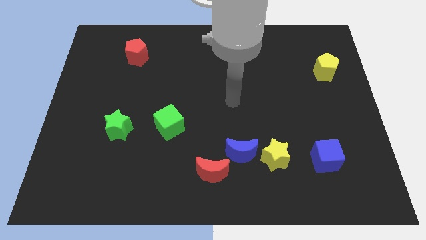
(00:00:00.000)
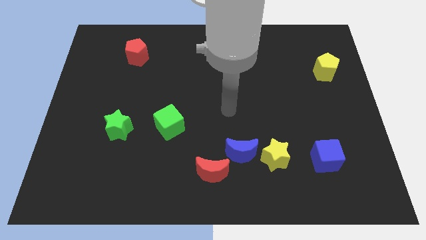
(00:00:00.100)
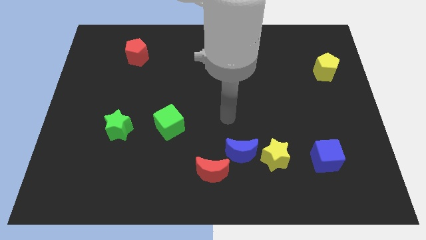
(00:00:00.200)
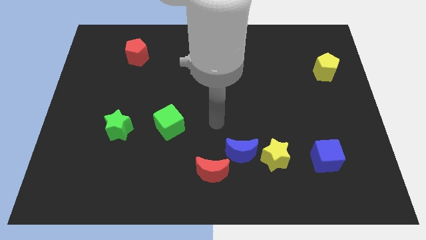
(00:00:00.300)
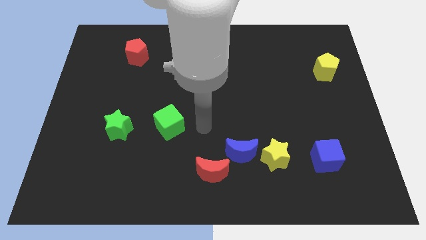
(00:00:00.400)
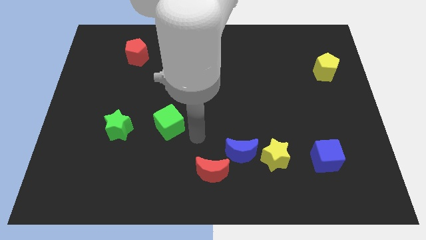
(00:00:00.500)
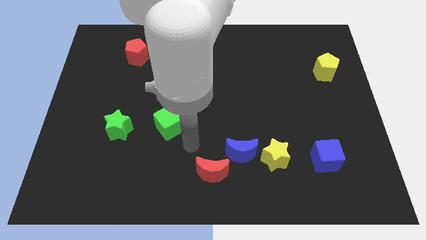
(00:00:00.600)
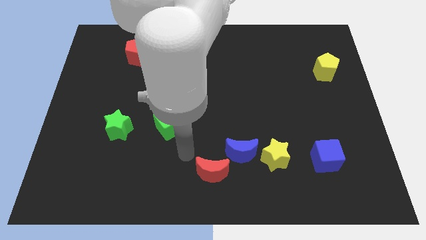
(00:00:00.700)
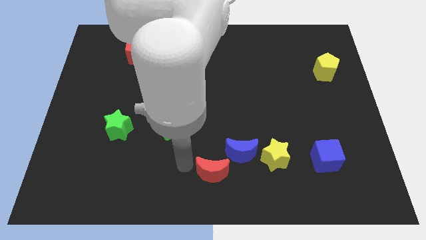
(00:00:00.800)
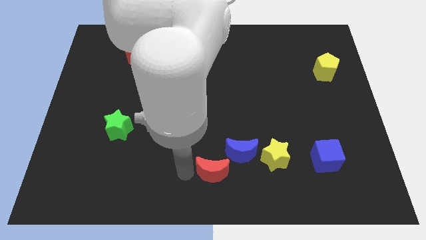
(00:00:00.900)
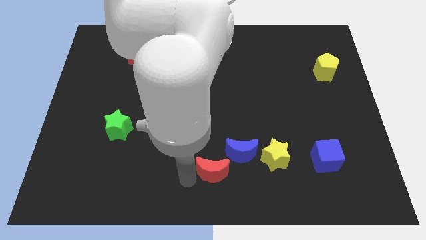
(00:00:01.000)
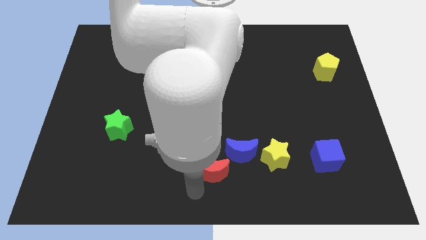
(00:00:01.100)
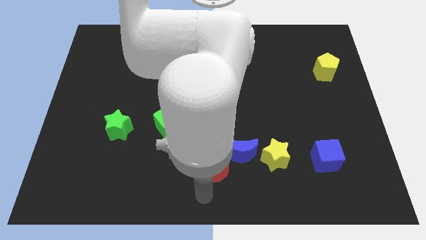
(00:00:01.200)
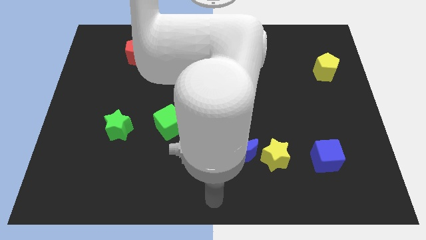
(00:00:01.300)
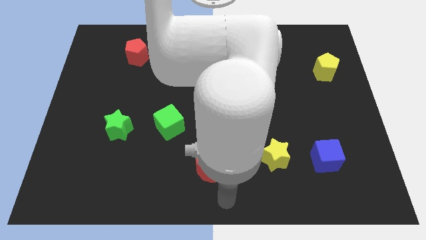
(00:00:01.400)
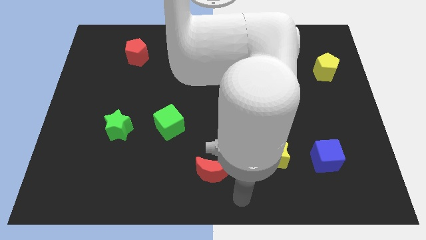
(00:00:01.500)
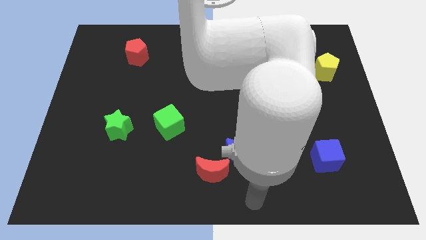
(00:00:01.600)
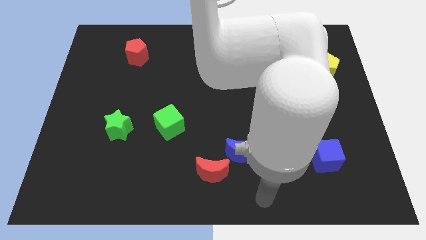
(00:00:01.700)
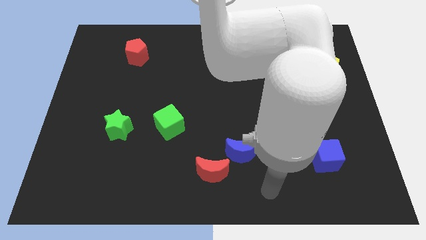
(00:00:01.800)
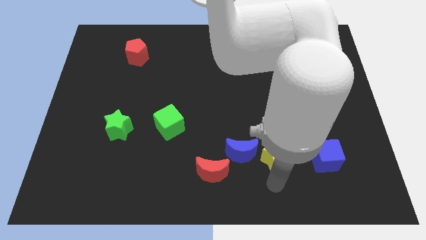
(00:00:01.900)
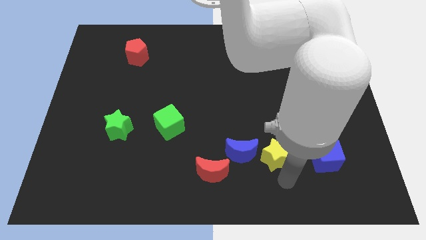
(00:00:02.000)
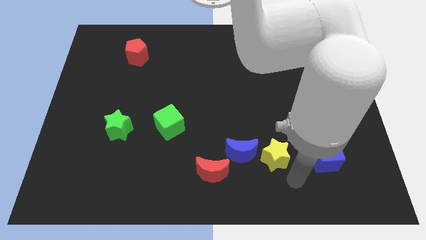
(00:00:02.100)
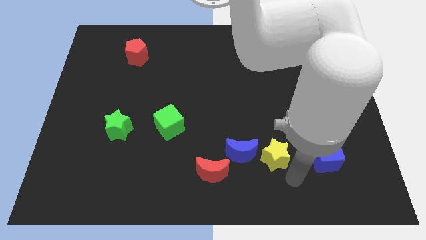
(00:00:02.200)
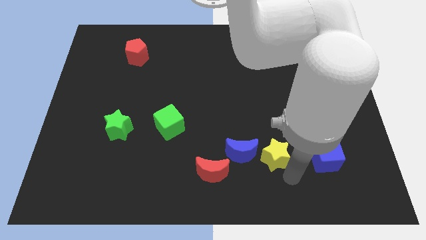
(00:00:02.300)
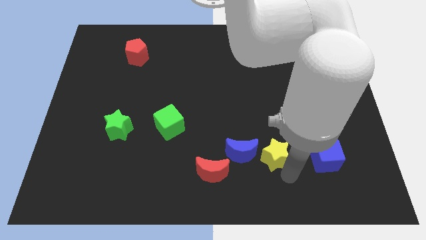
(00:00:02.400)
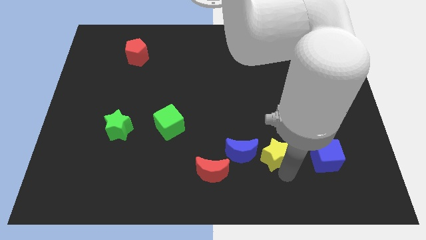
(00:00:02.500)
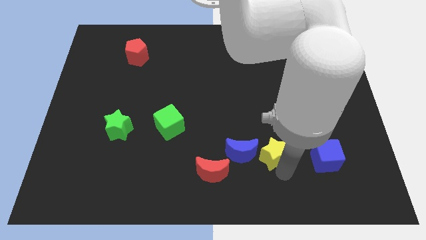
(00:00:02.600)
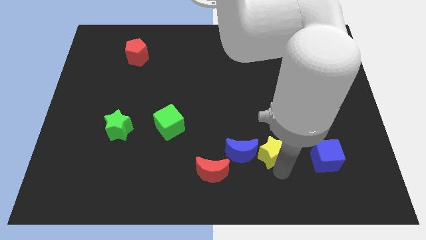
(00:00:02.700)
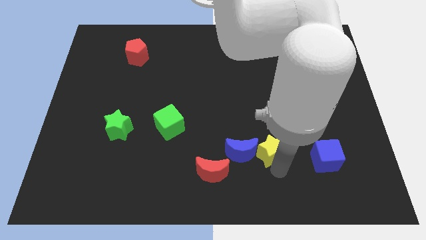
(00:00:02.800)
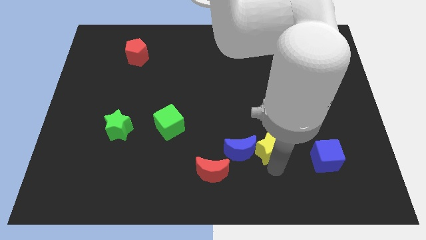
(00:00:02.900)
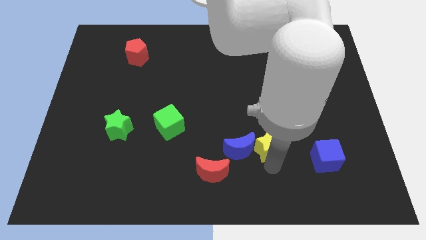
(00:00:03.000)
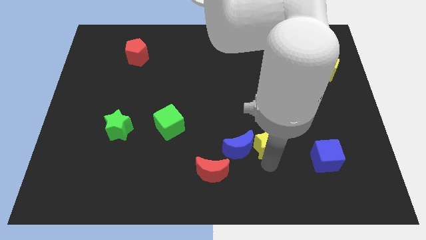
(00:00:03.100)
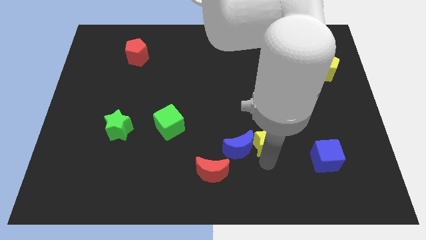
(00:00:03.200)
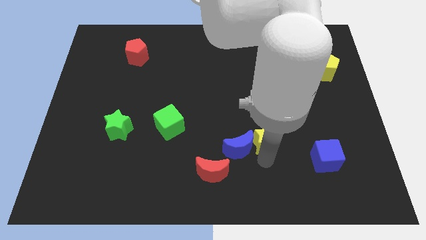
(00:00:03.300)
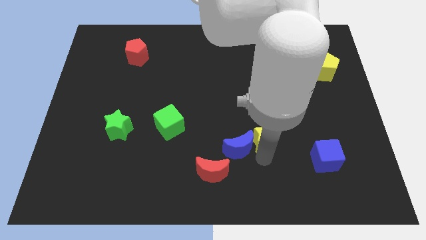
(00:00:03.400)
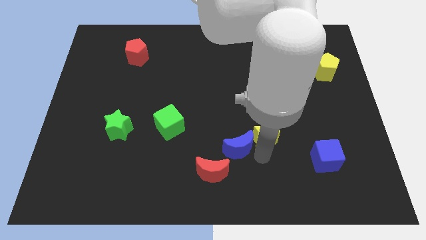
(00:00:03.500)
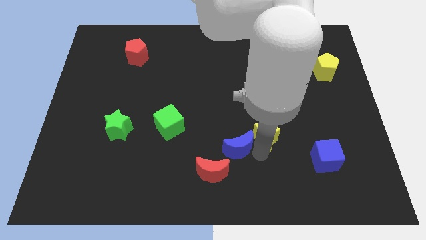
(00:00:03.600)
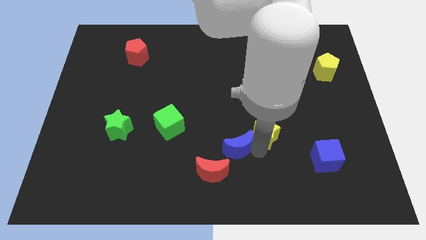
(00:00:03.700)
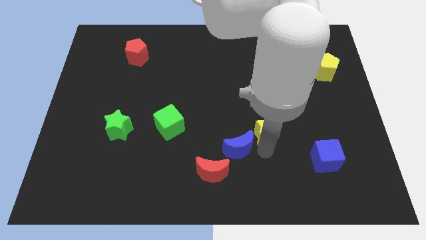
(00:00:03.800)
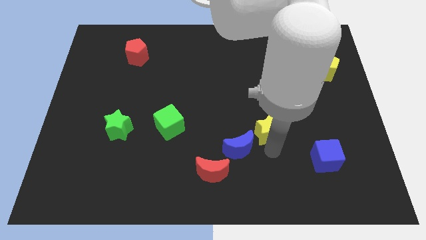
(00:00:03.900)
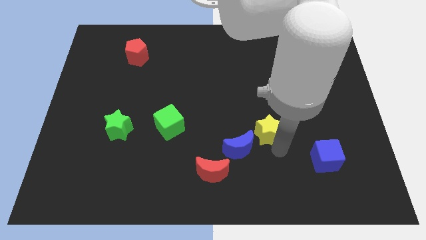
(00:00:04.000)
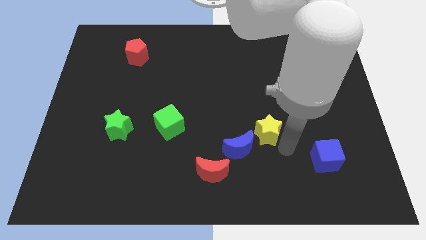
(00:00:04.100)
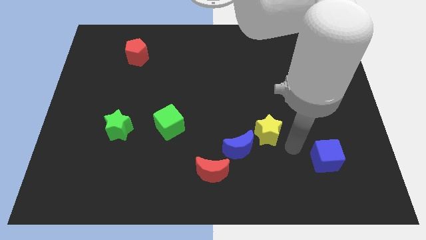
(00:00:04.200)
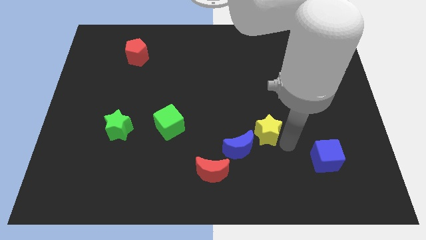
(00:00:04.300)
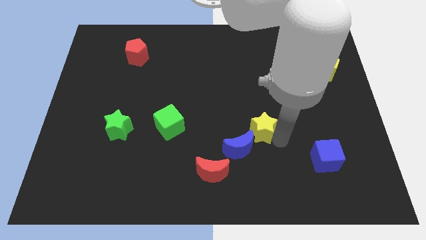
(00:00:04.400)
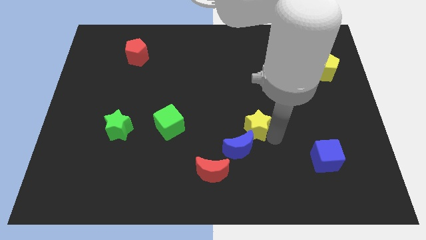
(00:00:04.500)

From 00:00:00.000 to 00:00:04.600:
slightly slide the yellow star up and to the left

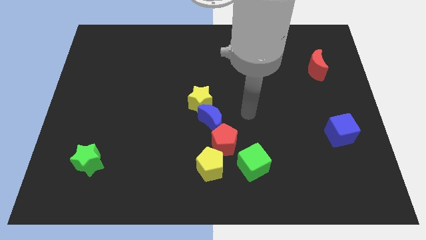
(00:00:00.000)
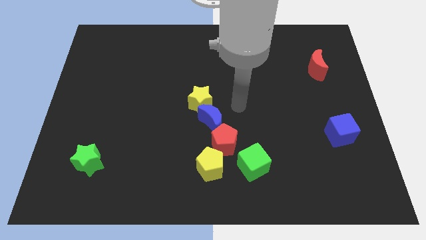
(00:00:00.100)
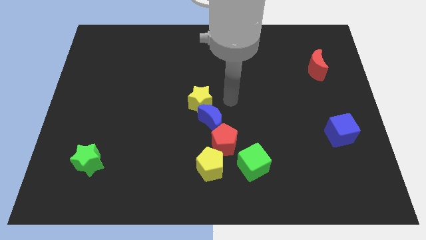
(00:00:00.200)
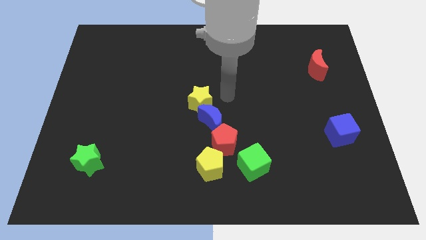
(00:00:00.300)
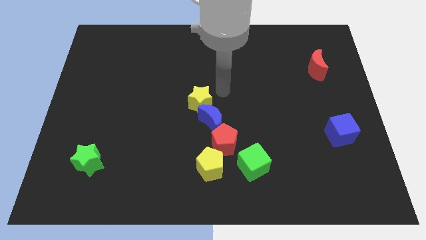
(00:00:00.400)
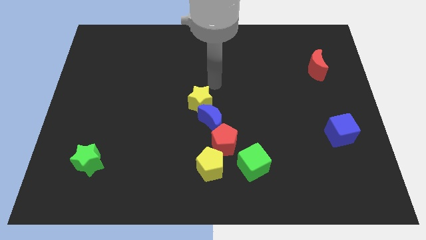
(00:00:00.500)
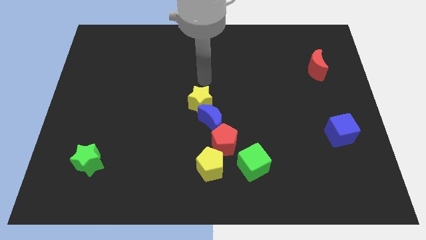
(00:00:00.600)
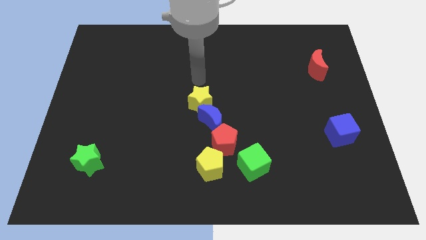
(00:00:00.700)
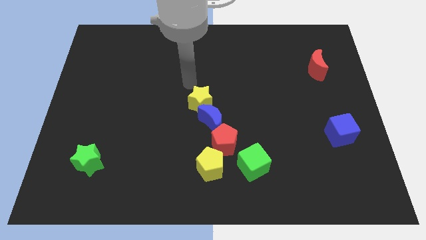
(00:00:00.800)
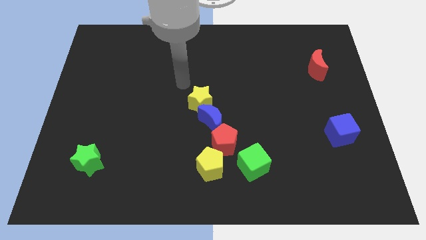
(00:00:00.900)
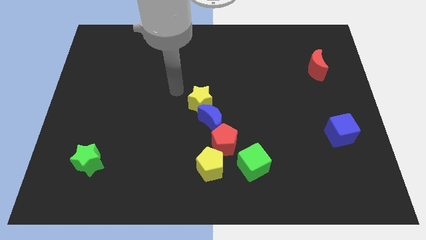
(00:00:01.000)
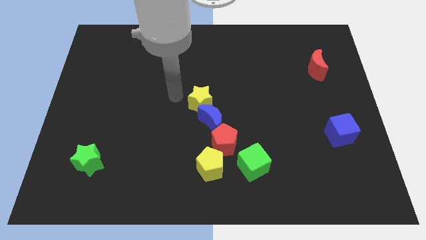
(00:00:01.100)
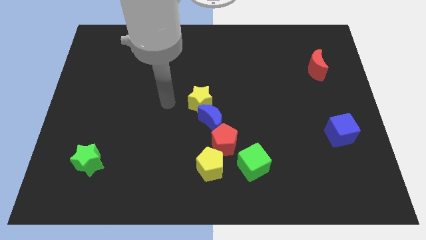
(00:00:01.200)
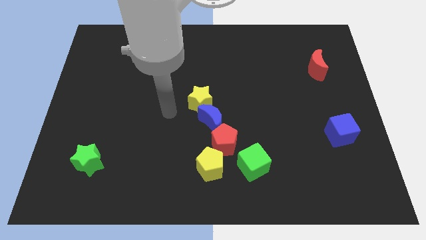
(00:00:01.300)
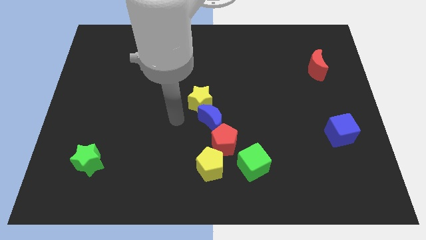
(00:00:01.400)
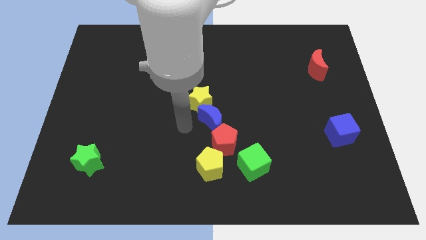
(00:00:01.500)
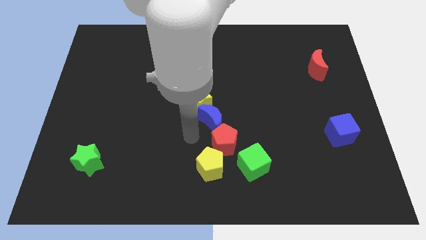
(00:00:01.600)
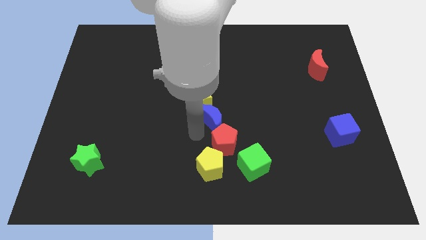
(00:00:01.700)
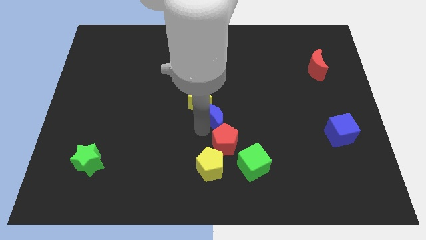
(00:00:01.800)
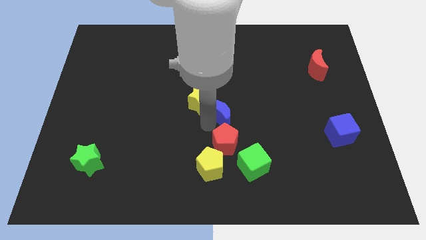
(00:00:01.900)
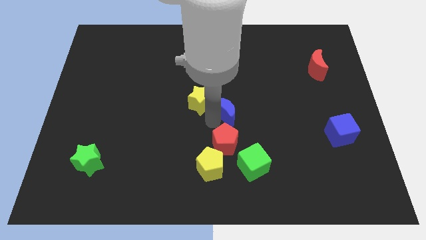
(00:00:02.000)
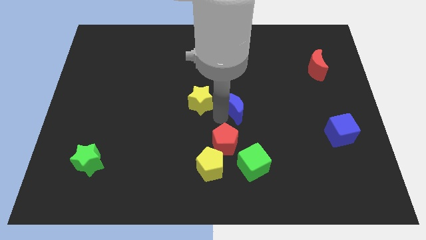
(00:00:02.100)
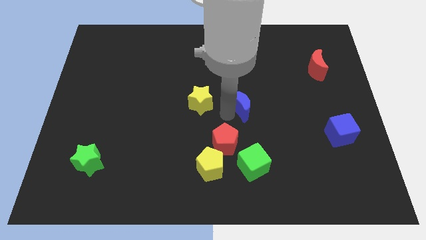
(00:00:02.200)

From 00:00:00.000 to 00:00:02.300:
move the blue moon up and right diagonally a little bit

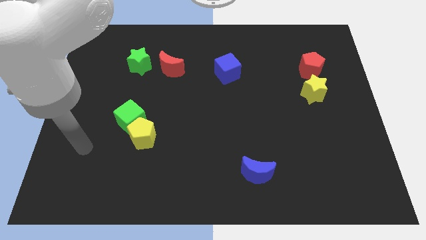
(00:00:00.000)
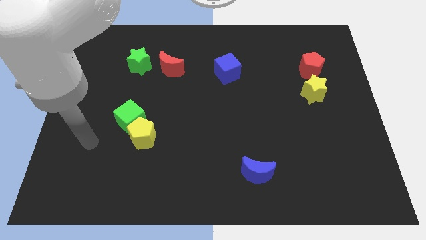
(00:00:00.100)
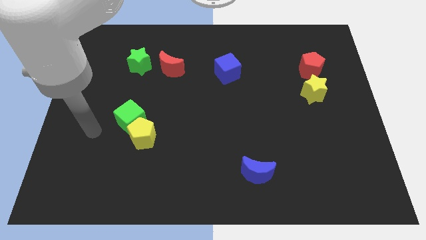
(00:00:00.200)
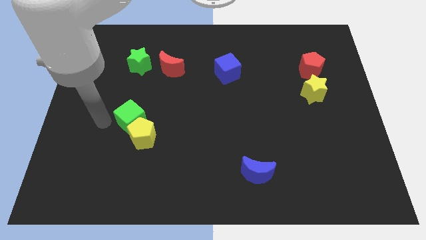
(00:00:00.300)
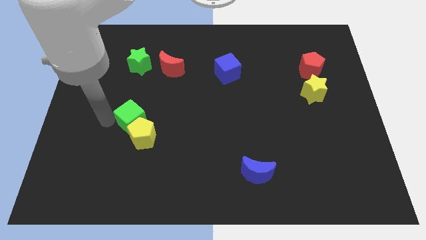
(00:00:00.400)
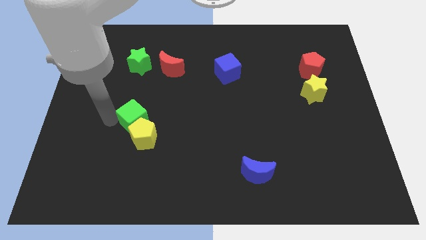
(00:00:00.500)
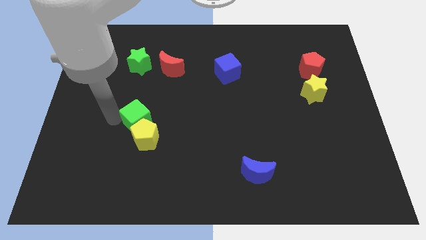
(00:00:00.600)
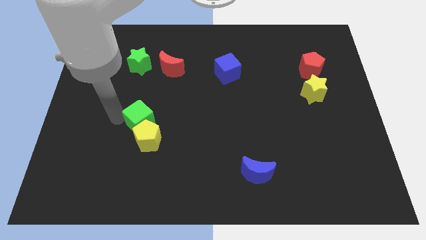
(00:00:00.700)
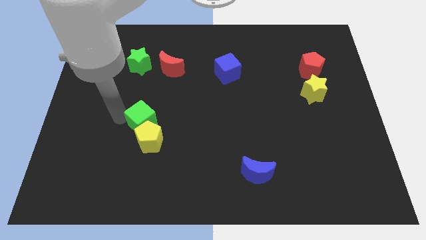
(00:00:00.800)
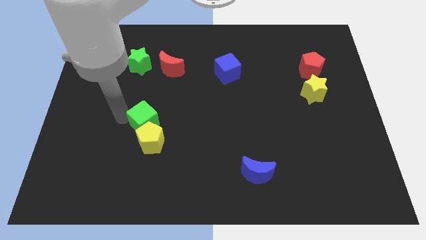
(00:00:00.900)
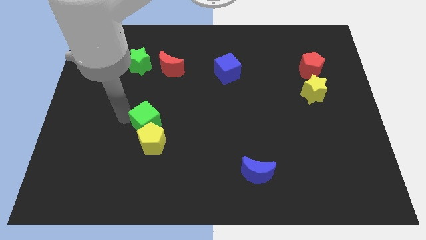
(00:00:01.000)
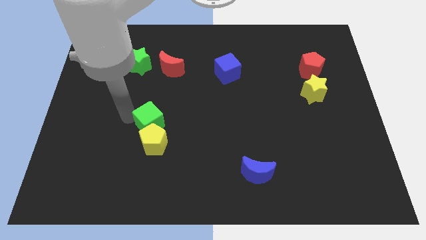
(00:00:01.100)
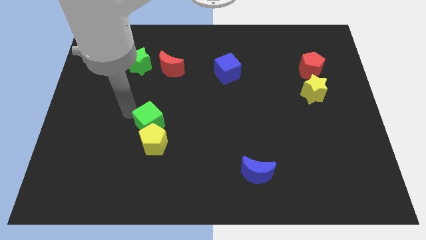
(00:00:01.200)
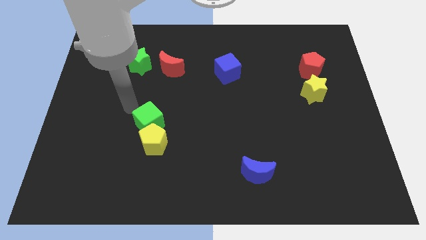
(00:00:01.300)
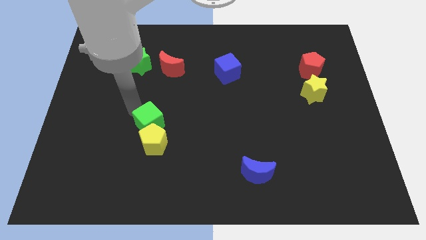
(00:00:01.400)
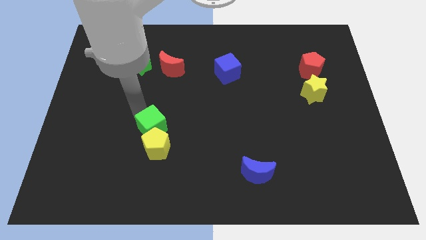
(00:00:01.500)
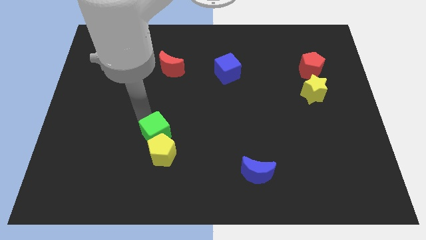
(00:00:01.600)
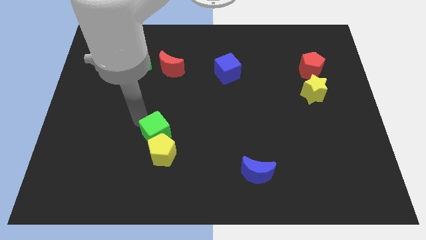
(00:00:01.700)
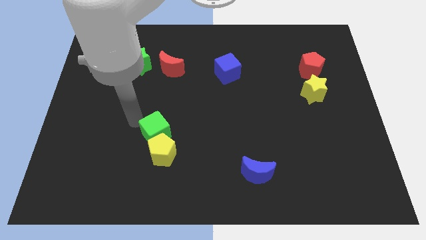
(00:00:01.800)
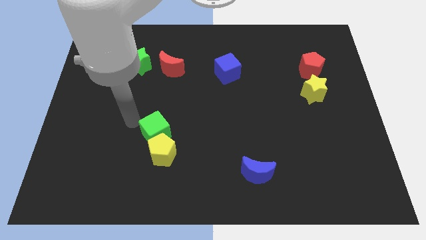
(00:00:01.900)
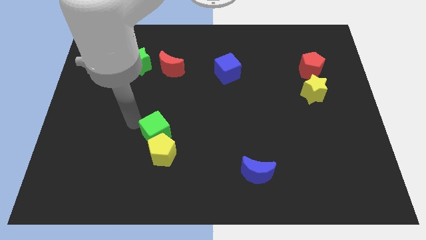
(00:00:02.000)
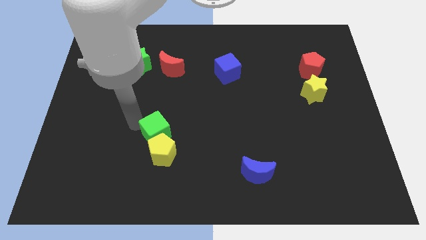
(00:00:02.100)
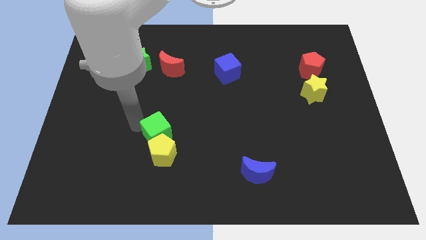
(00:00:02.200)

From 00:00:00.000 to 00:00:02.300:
move the green cube somewhat diagonally down and to the right
